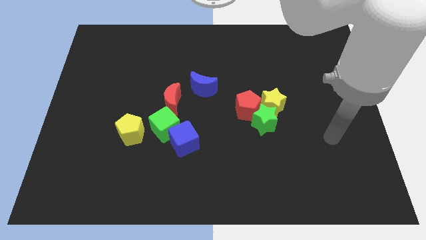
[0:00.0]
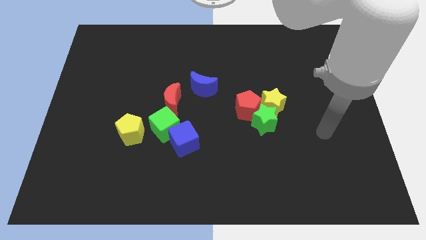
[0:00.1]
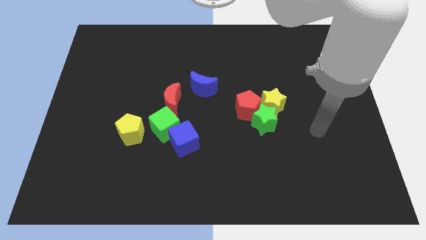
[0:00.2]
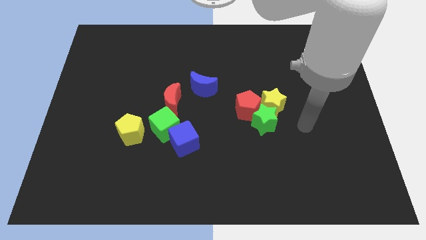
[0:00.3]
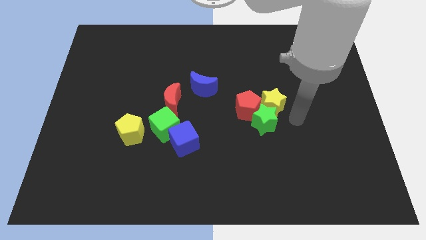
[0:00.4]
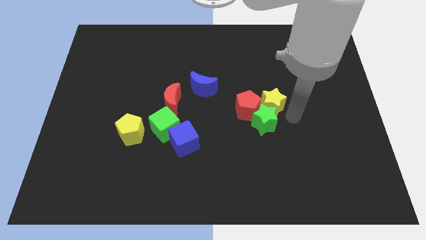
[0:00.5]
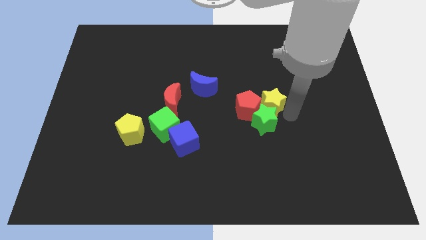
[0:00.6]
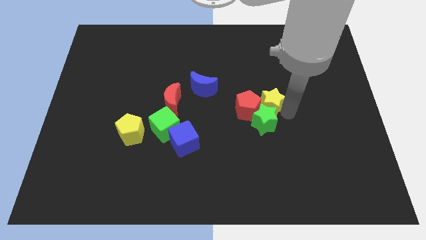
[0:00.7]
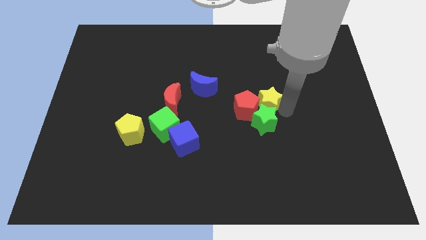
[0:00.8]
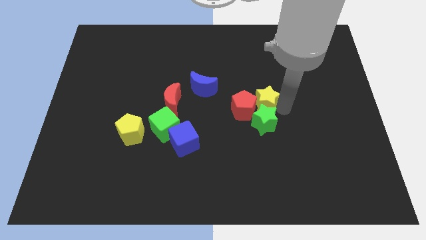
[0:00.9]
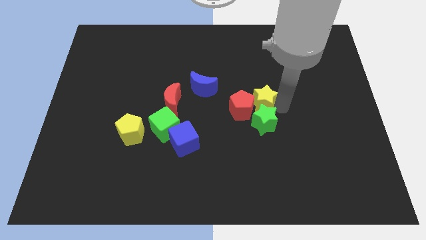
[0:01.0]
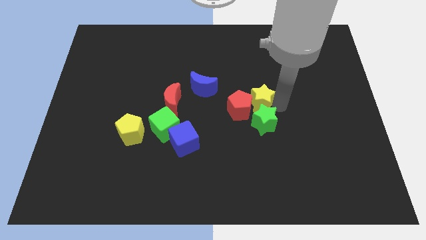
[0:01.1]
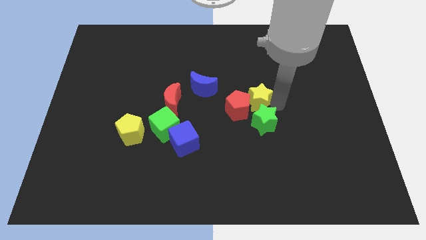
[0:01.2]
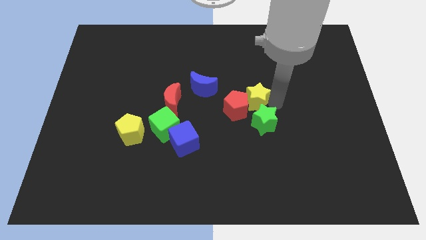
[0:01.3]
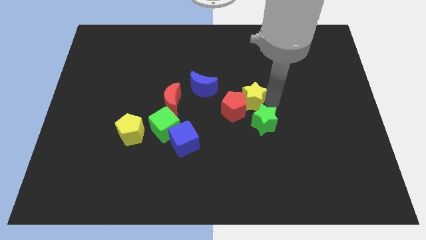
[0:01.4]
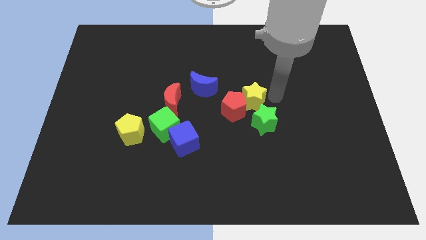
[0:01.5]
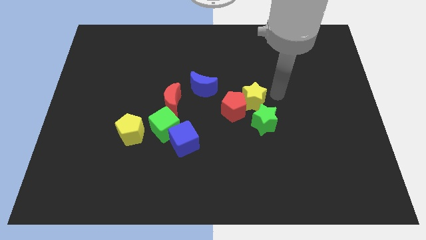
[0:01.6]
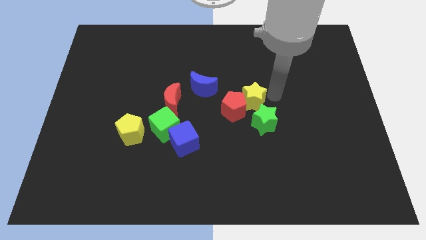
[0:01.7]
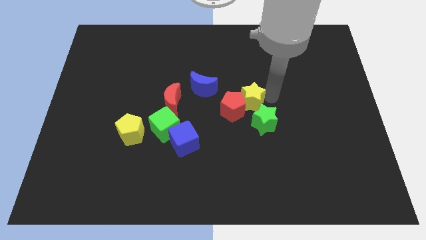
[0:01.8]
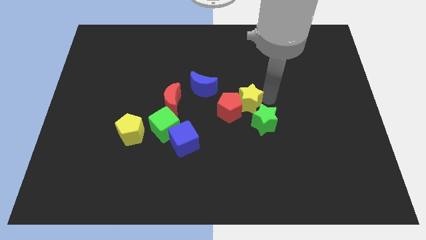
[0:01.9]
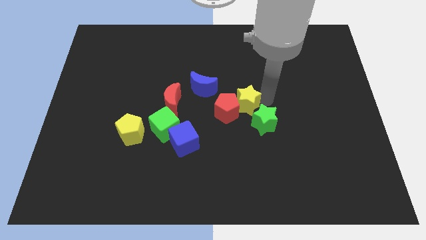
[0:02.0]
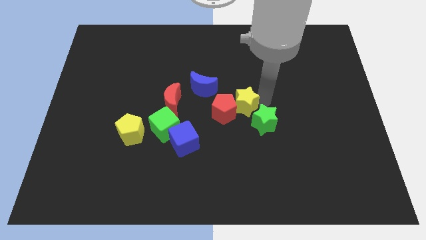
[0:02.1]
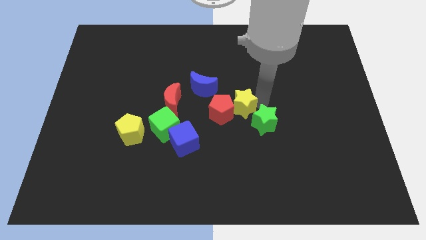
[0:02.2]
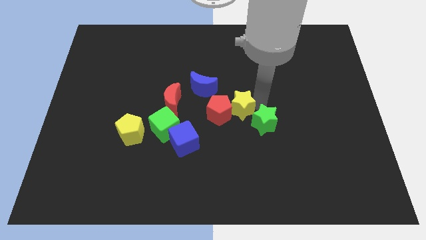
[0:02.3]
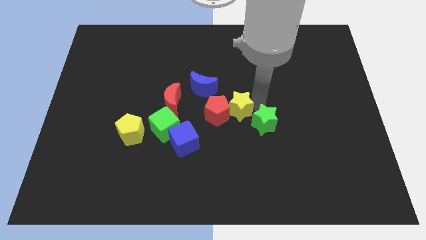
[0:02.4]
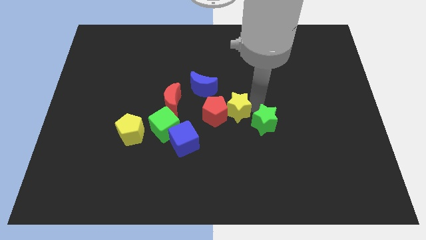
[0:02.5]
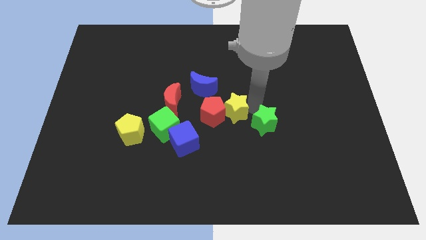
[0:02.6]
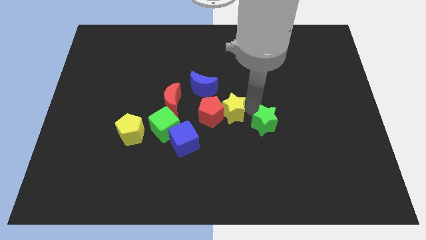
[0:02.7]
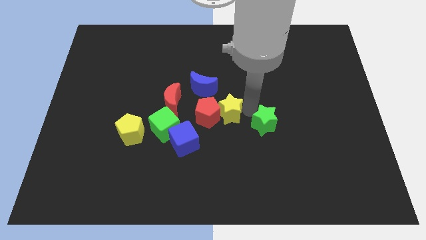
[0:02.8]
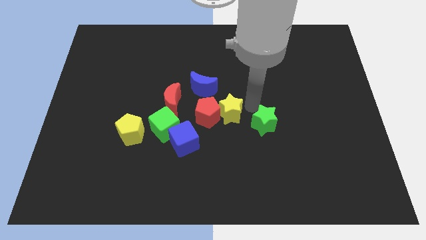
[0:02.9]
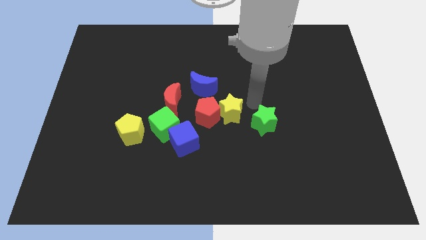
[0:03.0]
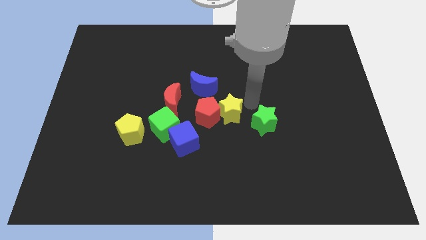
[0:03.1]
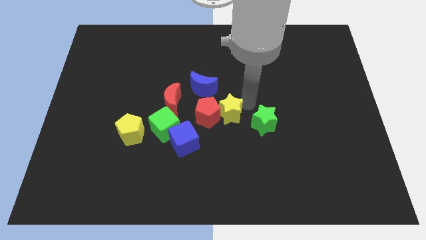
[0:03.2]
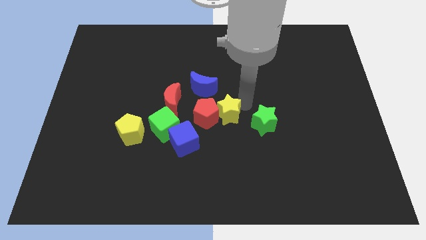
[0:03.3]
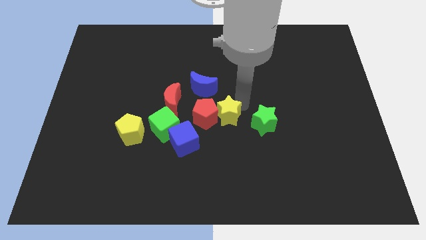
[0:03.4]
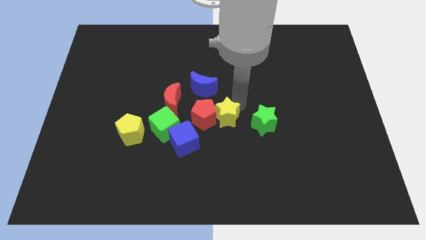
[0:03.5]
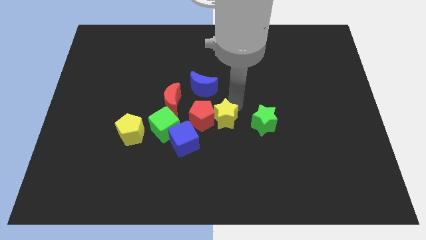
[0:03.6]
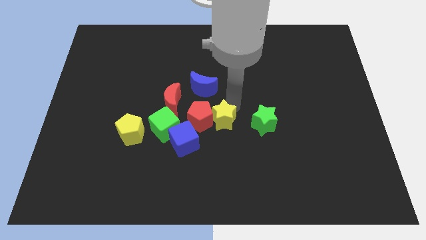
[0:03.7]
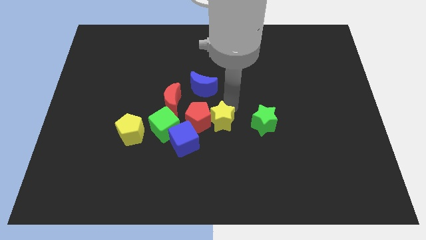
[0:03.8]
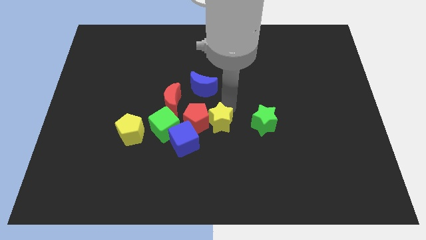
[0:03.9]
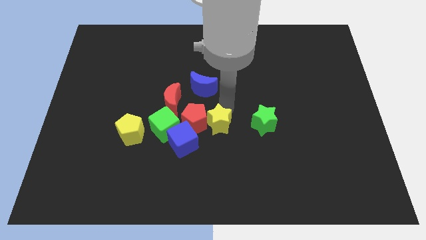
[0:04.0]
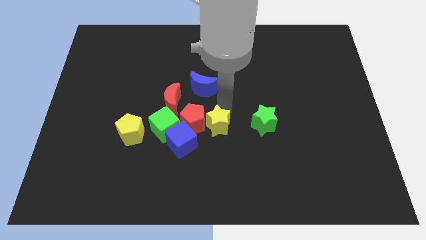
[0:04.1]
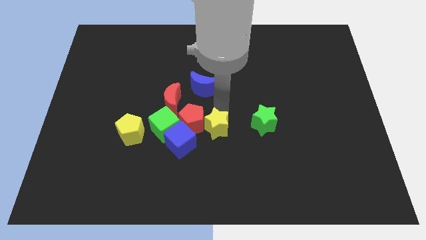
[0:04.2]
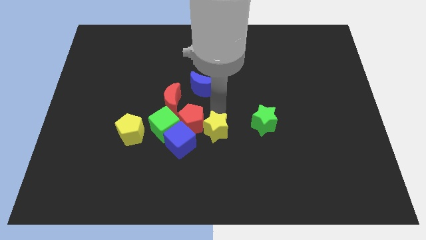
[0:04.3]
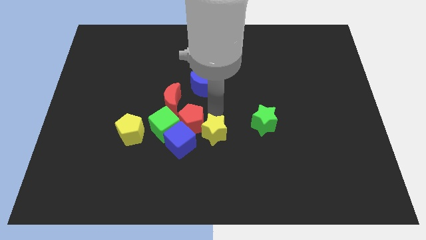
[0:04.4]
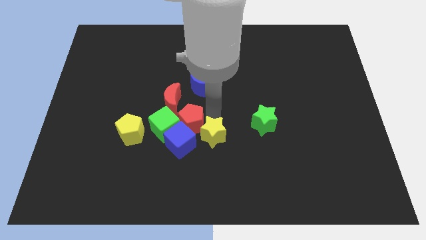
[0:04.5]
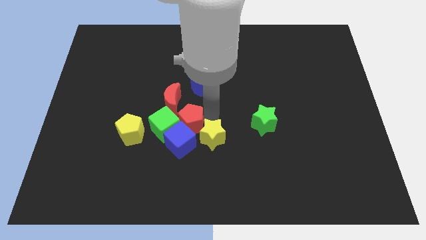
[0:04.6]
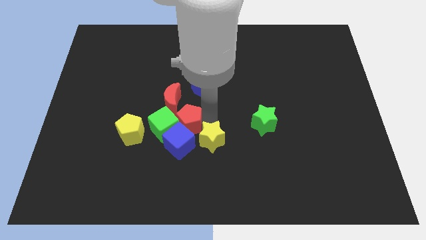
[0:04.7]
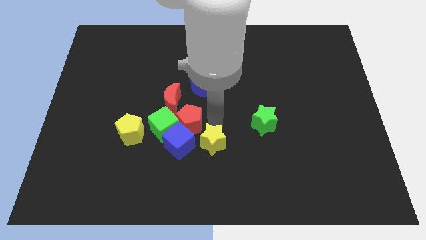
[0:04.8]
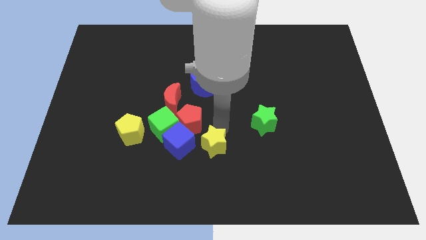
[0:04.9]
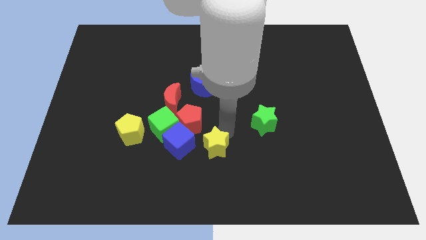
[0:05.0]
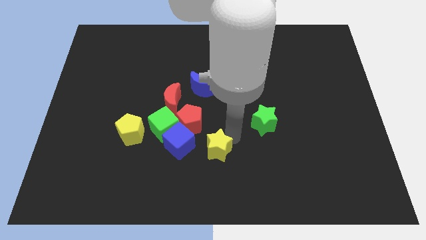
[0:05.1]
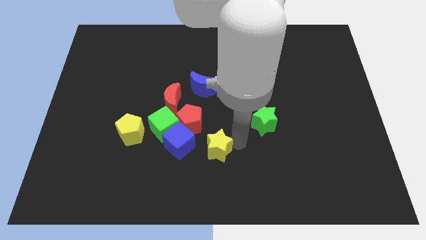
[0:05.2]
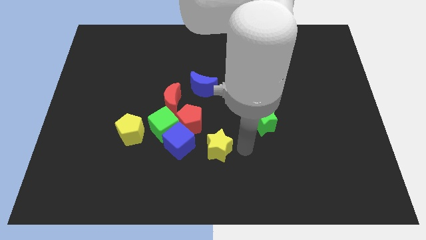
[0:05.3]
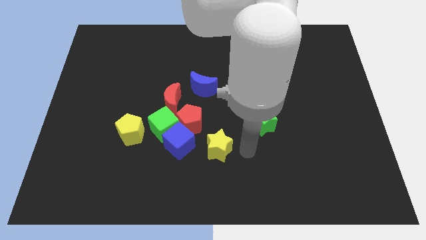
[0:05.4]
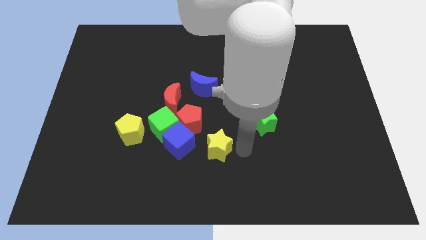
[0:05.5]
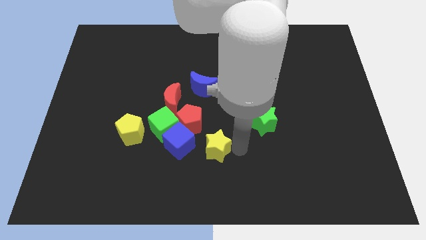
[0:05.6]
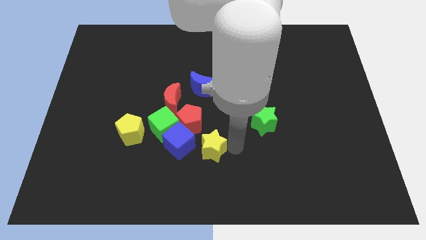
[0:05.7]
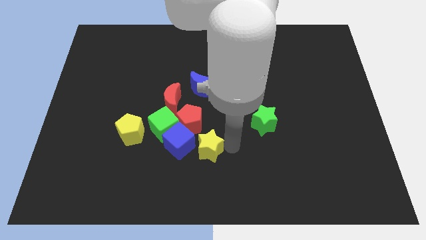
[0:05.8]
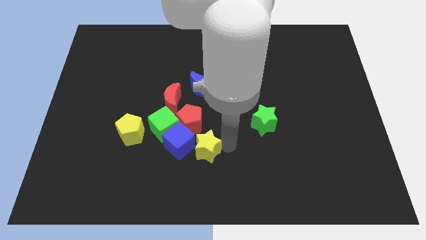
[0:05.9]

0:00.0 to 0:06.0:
put the yellow star next to the blue cube

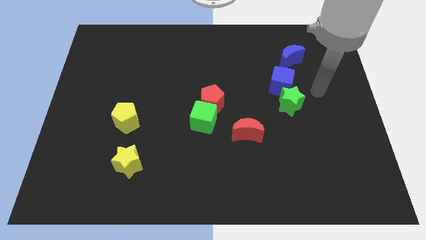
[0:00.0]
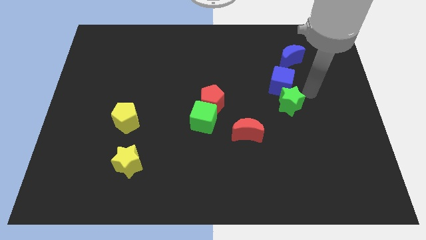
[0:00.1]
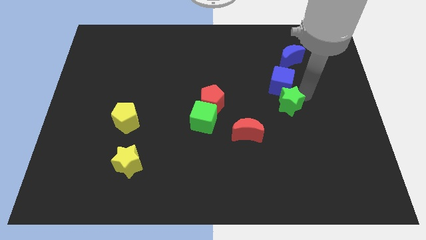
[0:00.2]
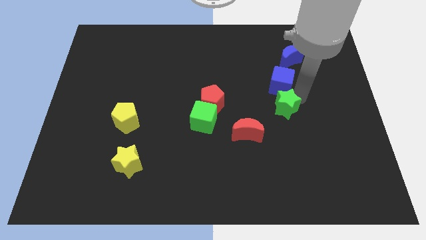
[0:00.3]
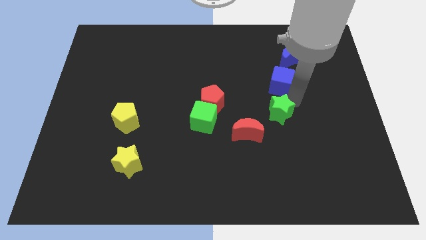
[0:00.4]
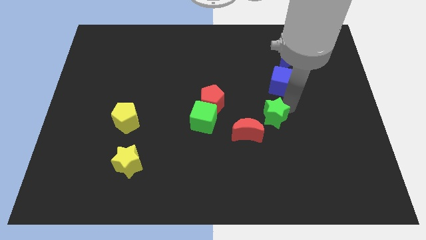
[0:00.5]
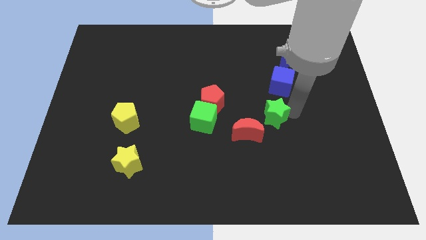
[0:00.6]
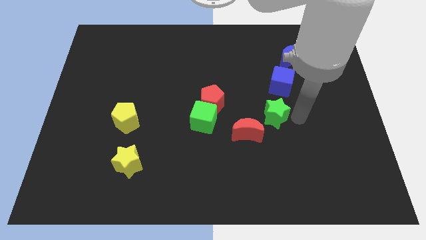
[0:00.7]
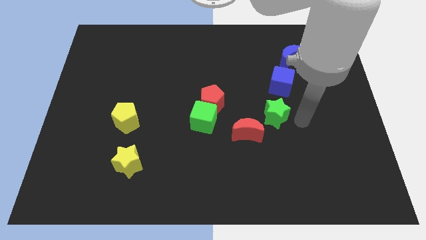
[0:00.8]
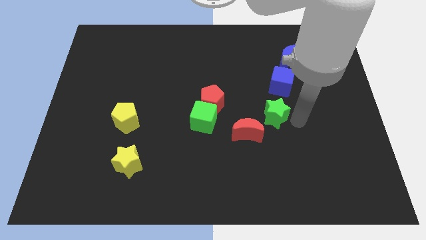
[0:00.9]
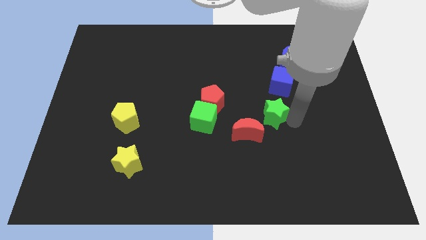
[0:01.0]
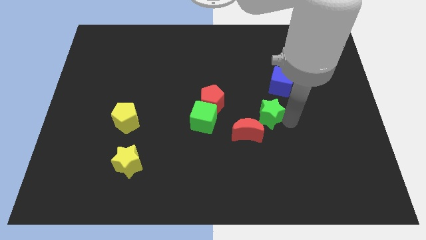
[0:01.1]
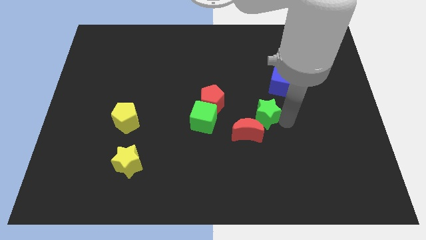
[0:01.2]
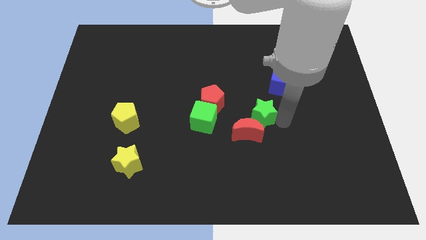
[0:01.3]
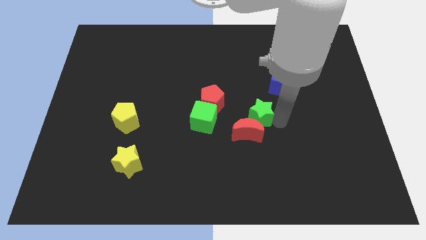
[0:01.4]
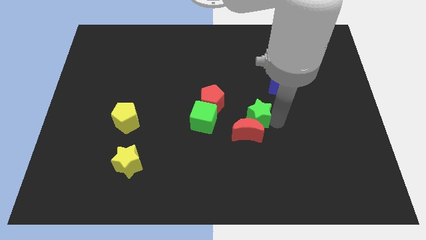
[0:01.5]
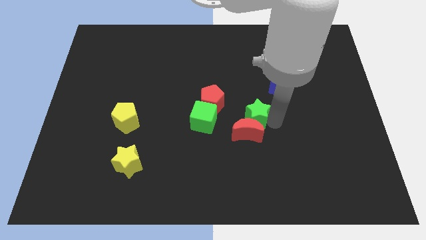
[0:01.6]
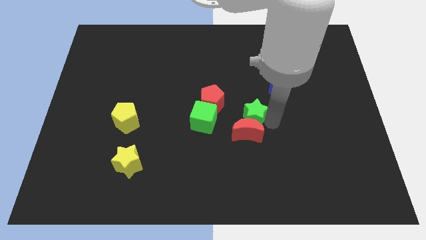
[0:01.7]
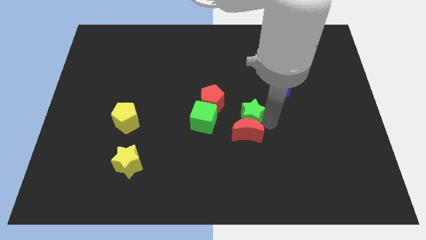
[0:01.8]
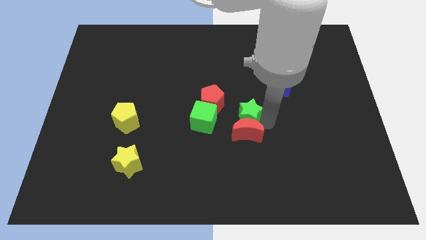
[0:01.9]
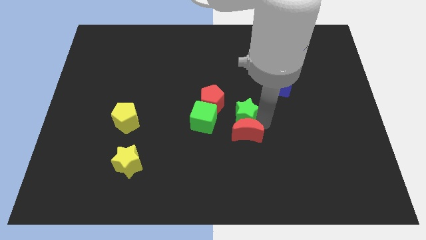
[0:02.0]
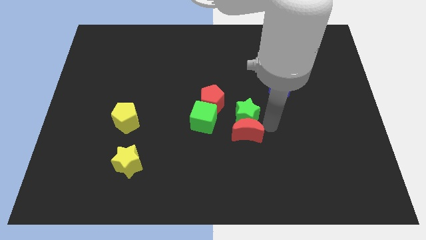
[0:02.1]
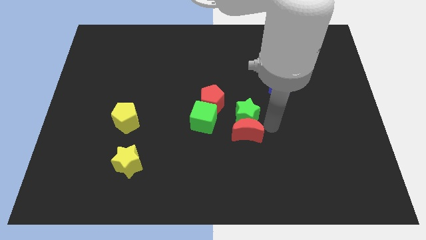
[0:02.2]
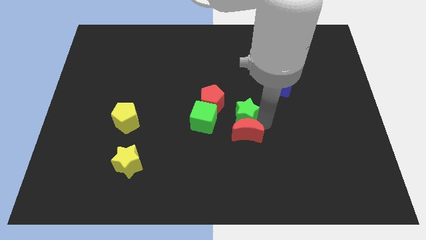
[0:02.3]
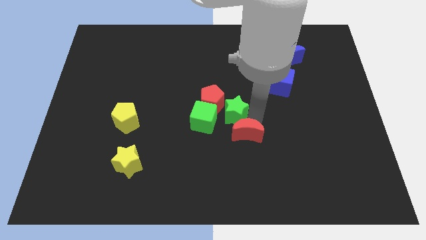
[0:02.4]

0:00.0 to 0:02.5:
slide the green star towards the red pentagon
